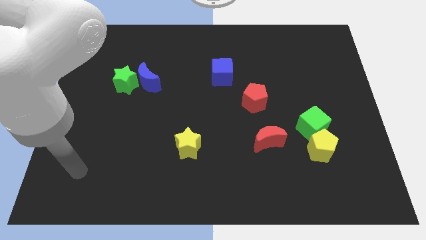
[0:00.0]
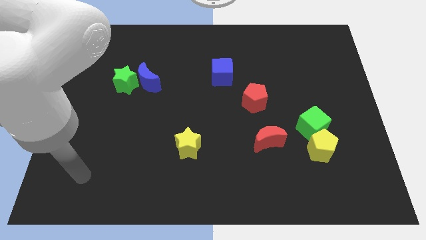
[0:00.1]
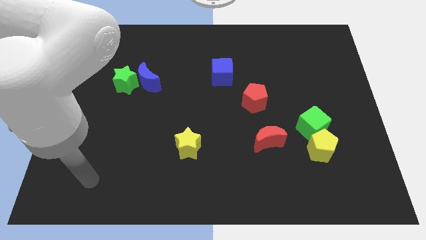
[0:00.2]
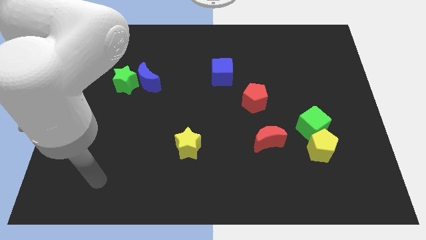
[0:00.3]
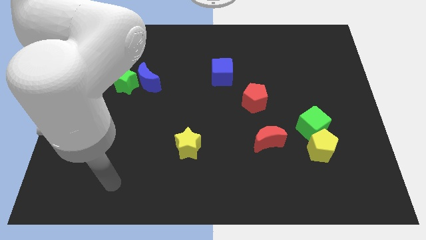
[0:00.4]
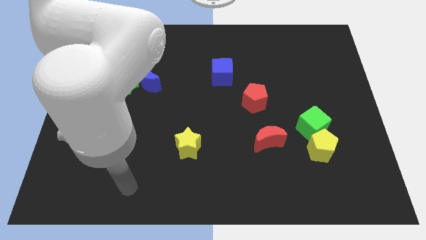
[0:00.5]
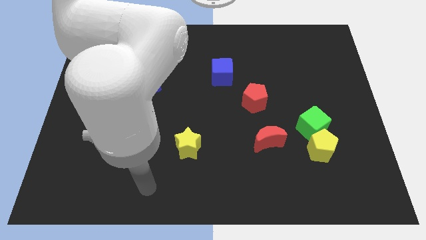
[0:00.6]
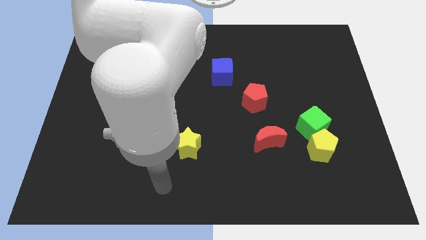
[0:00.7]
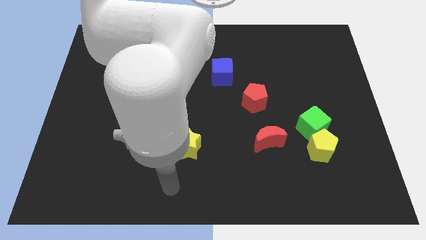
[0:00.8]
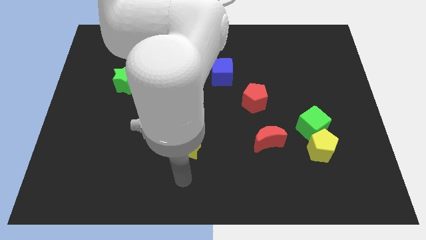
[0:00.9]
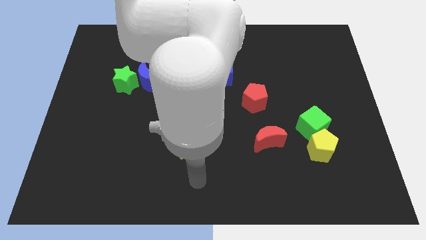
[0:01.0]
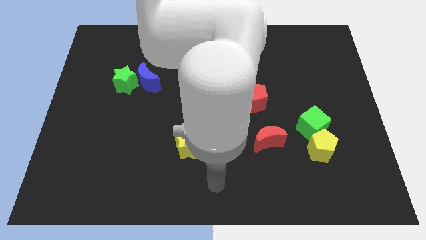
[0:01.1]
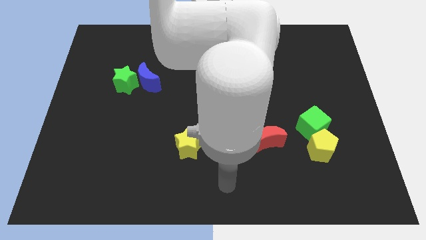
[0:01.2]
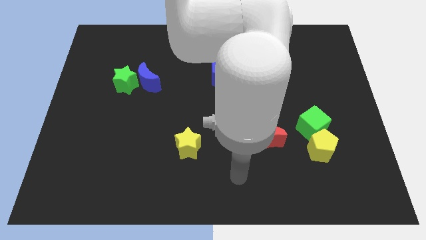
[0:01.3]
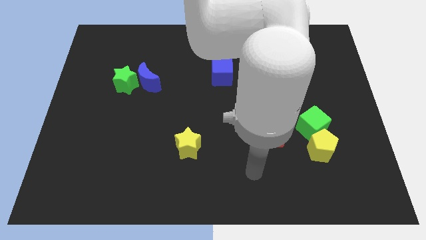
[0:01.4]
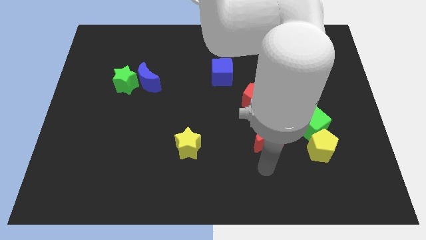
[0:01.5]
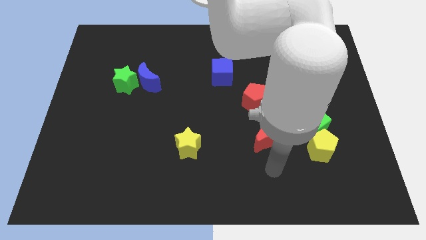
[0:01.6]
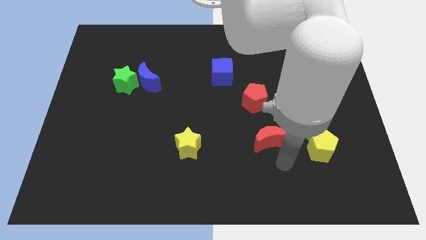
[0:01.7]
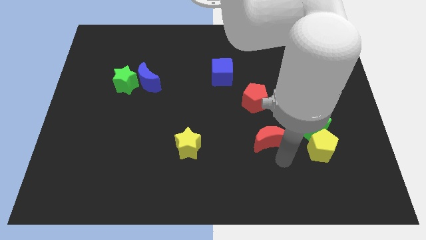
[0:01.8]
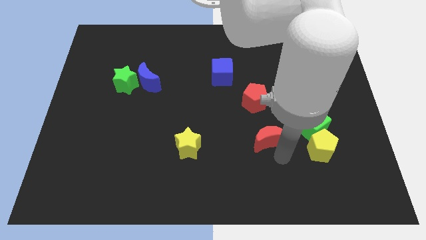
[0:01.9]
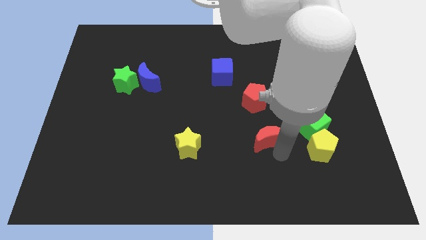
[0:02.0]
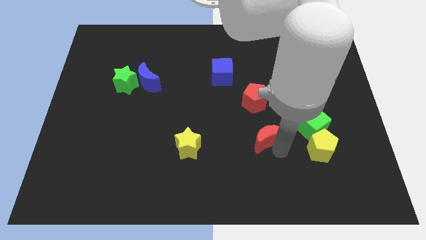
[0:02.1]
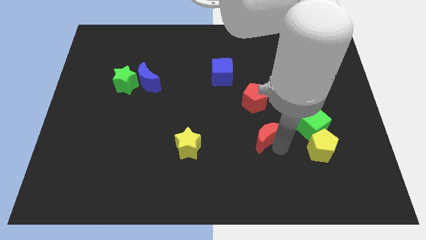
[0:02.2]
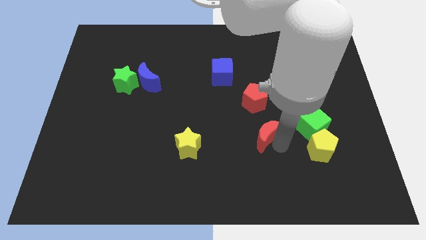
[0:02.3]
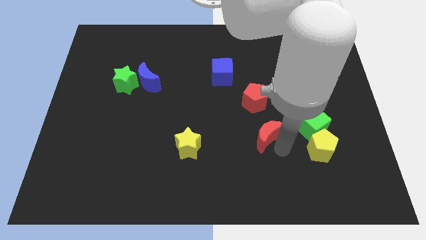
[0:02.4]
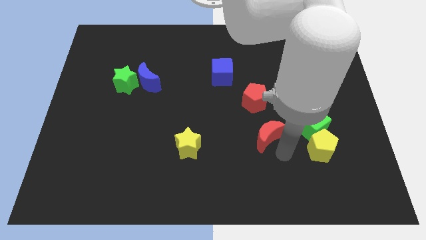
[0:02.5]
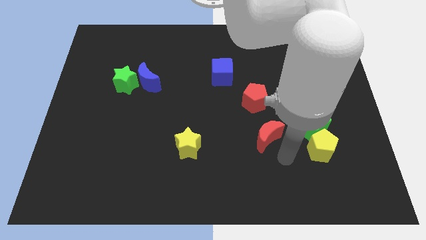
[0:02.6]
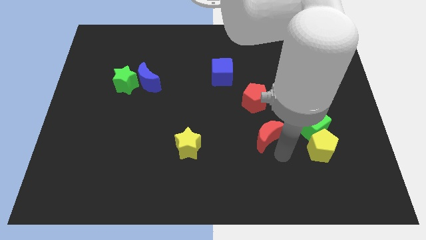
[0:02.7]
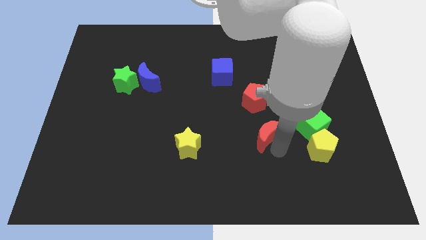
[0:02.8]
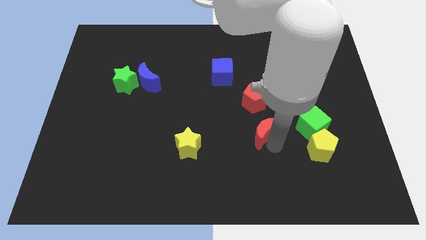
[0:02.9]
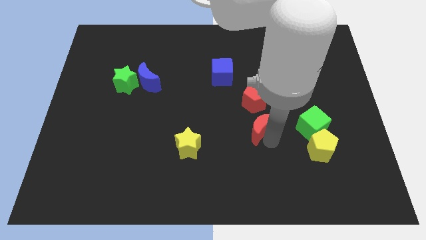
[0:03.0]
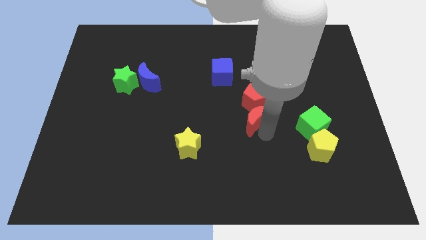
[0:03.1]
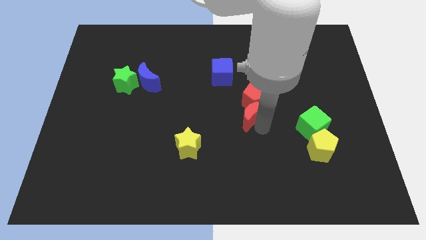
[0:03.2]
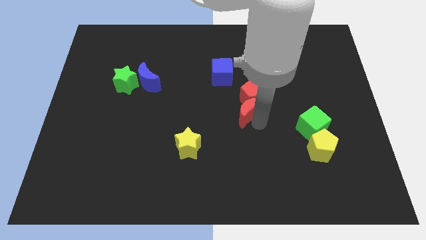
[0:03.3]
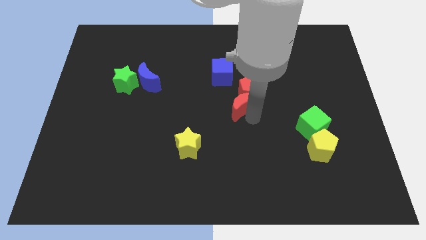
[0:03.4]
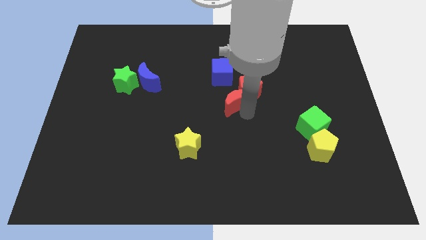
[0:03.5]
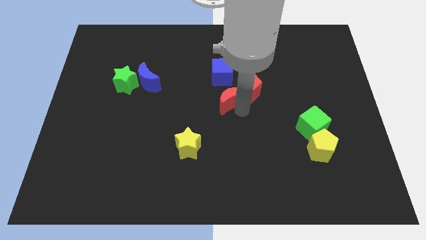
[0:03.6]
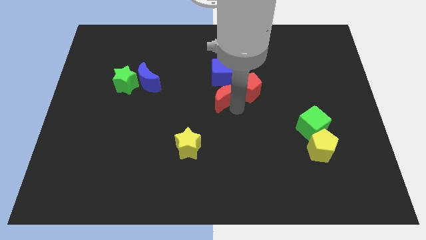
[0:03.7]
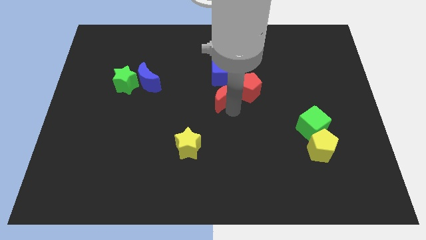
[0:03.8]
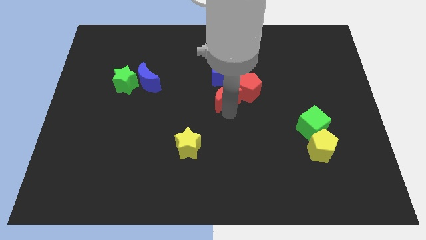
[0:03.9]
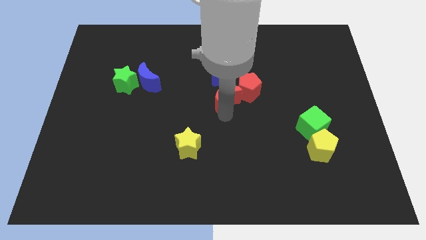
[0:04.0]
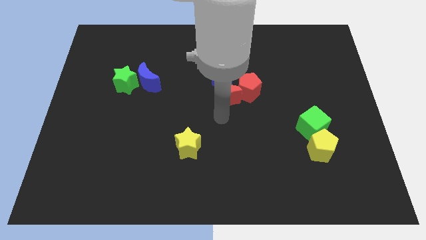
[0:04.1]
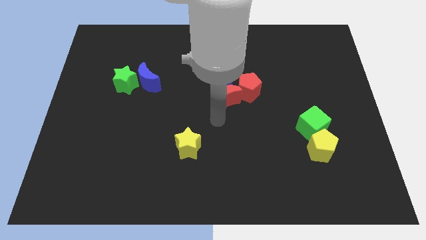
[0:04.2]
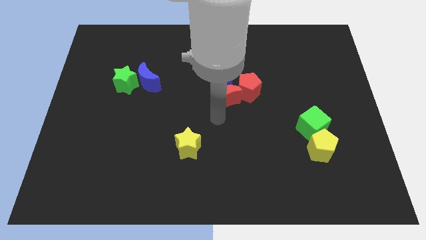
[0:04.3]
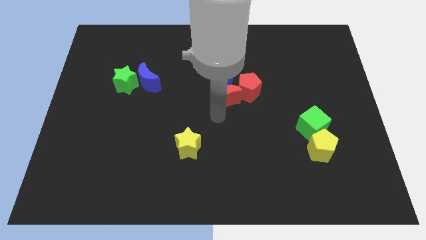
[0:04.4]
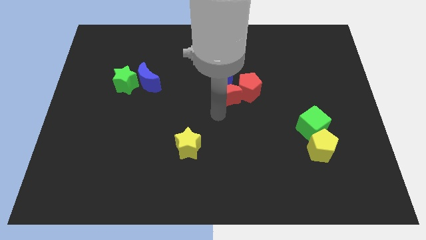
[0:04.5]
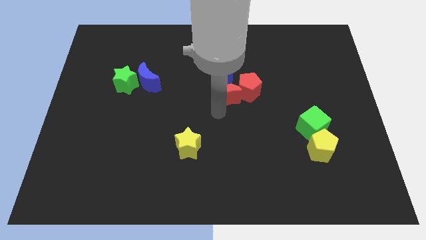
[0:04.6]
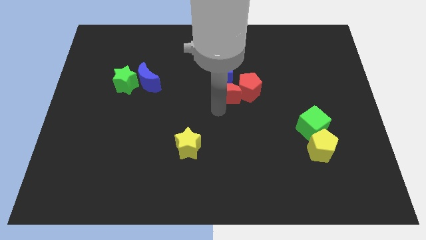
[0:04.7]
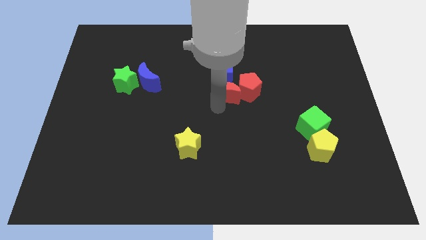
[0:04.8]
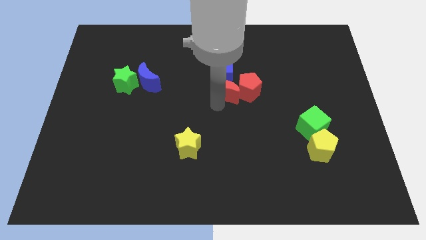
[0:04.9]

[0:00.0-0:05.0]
put the red moon next to the blue cube

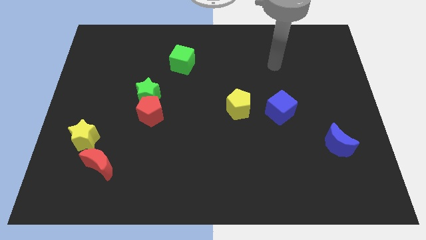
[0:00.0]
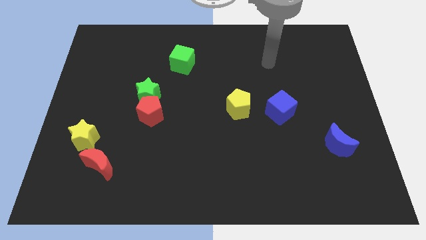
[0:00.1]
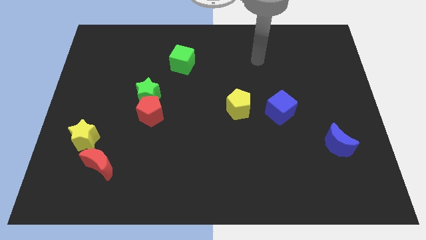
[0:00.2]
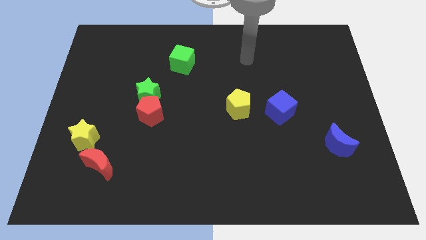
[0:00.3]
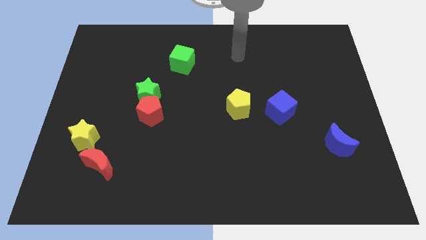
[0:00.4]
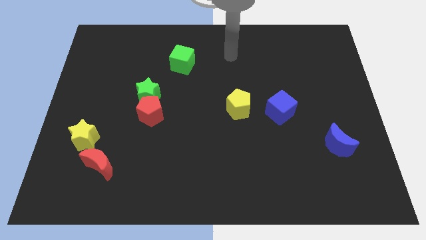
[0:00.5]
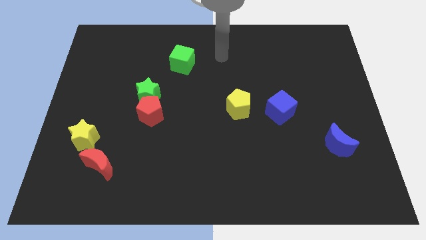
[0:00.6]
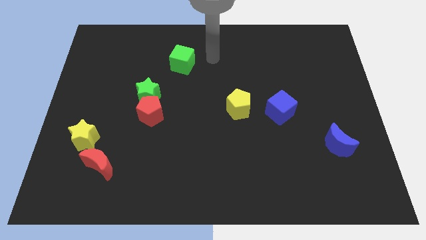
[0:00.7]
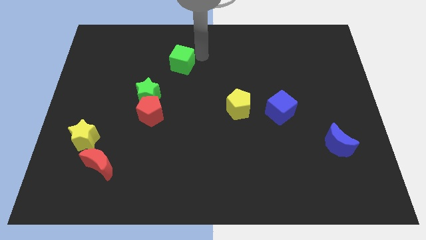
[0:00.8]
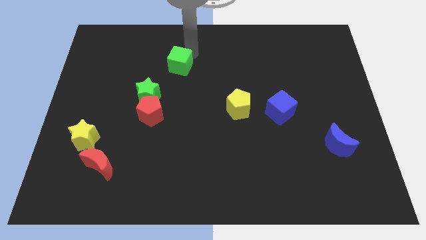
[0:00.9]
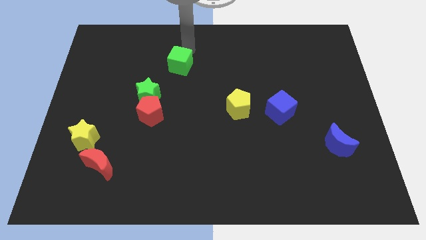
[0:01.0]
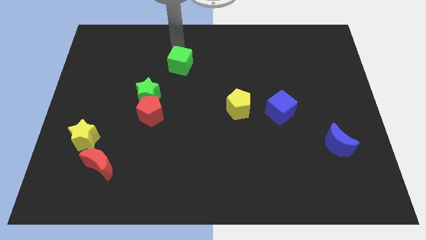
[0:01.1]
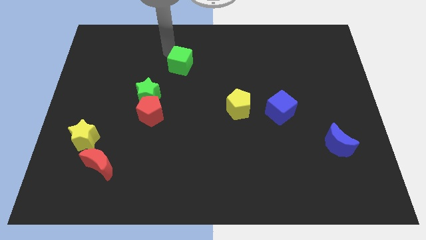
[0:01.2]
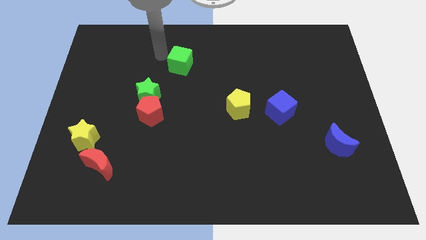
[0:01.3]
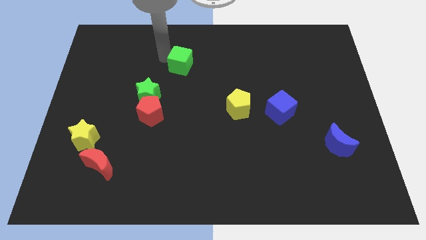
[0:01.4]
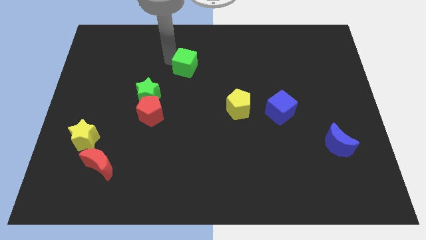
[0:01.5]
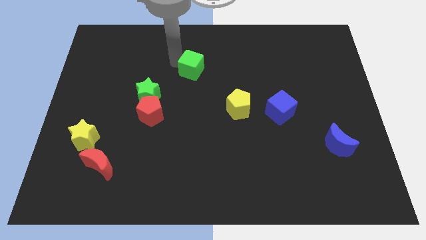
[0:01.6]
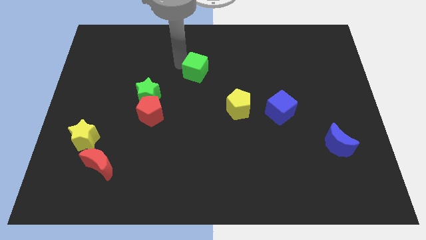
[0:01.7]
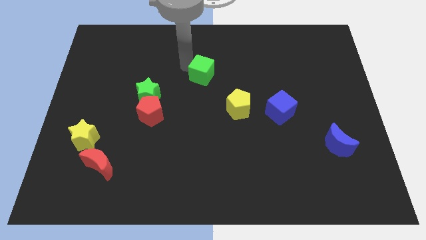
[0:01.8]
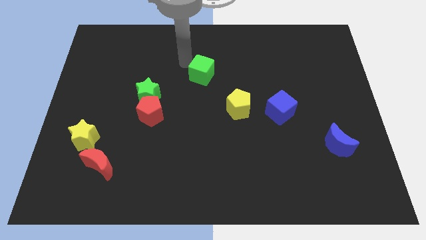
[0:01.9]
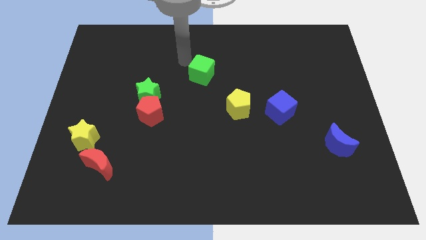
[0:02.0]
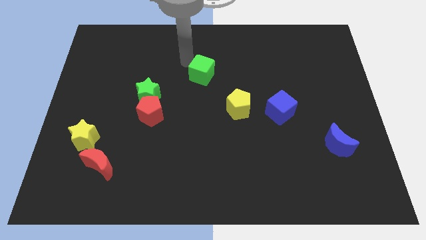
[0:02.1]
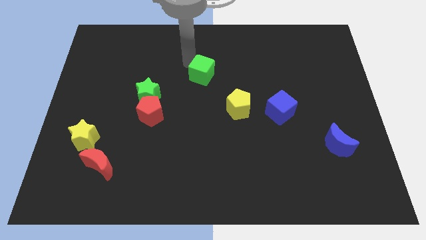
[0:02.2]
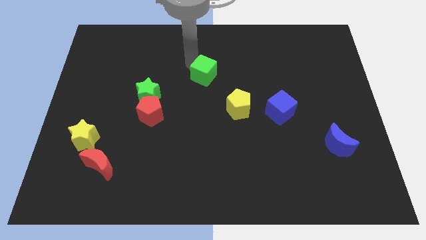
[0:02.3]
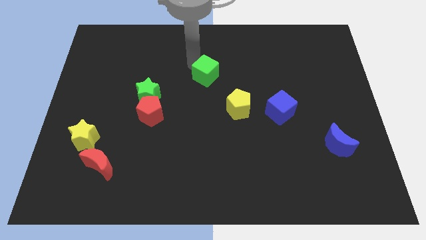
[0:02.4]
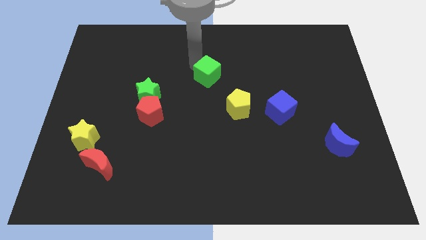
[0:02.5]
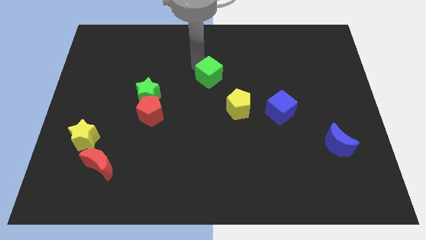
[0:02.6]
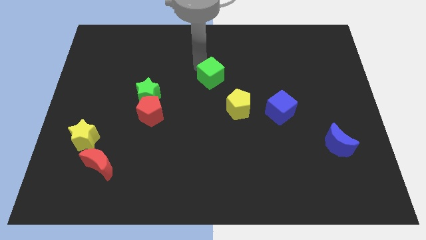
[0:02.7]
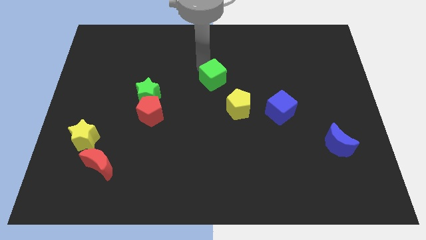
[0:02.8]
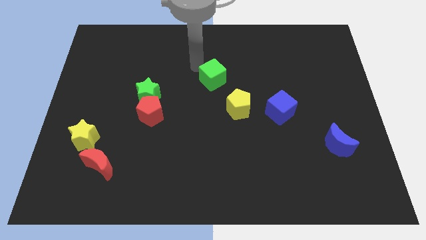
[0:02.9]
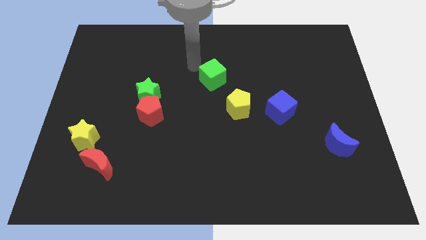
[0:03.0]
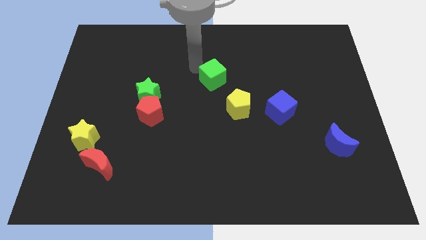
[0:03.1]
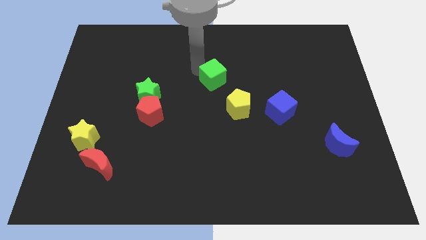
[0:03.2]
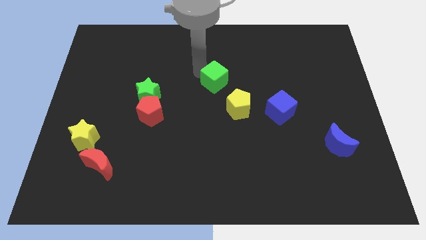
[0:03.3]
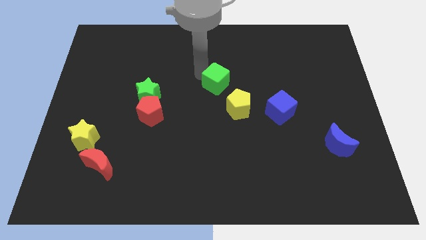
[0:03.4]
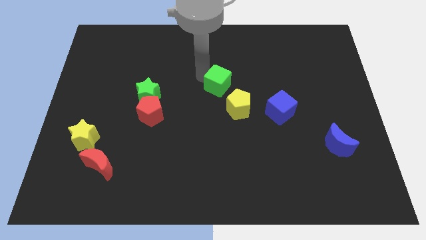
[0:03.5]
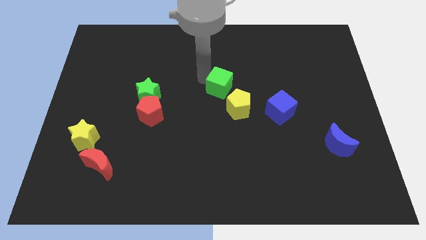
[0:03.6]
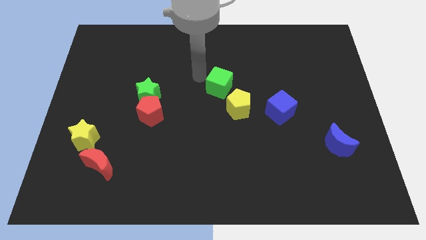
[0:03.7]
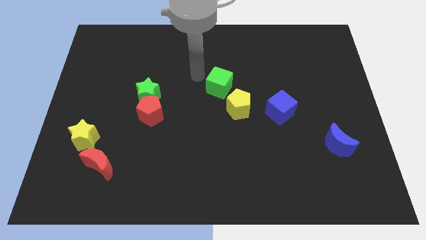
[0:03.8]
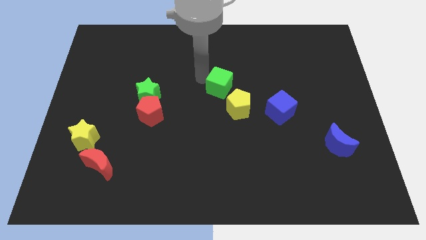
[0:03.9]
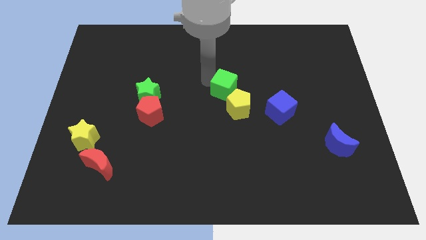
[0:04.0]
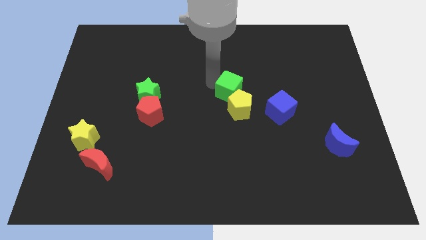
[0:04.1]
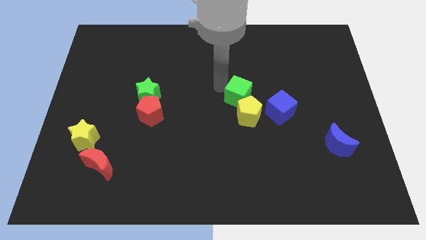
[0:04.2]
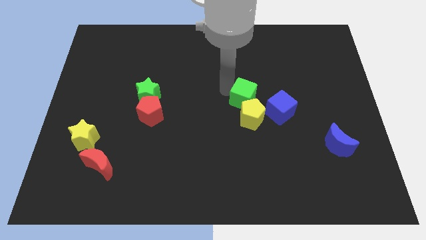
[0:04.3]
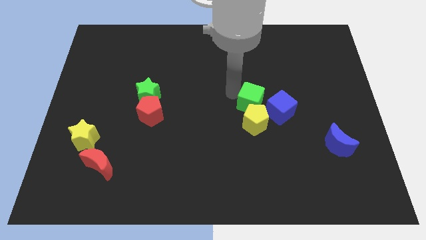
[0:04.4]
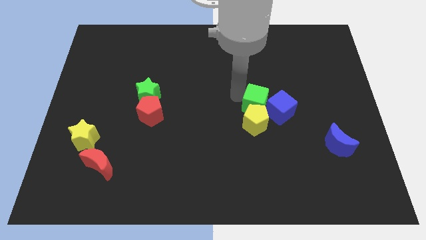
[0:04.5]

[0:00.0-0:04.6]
put the green cube towards the blue cube
